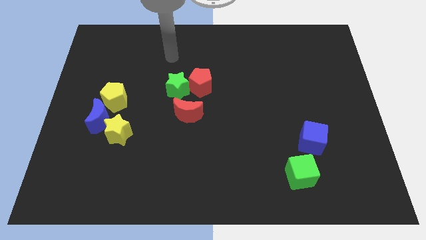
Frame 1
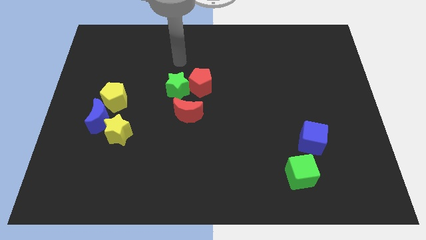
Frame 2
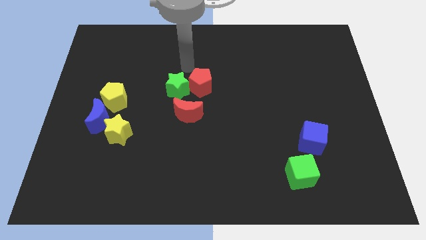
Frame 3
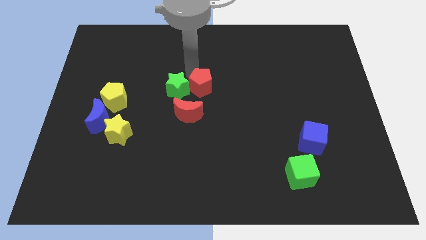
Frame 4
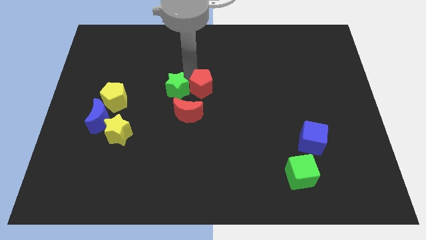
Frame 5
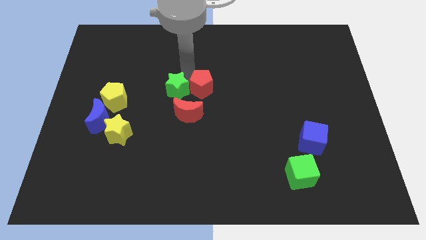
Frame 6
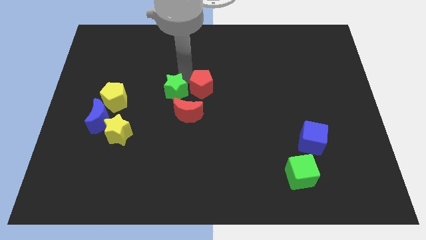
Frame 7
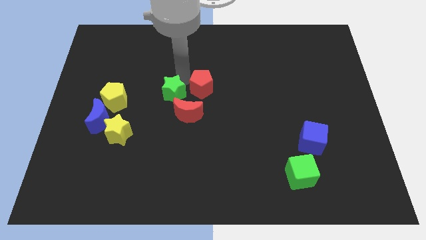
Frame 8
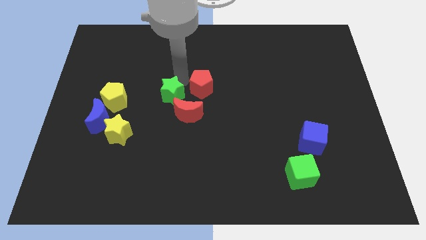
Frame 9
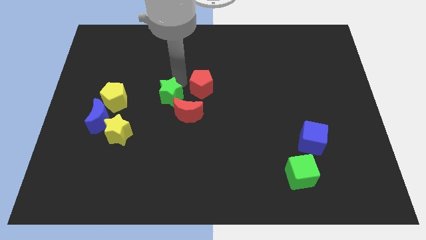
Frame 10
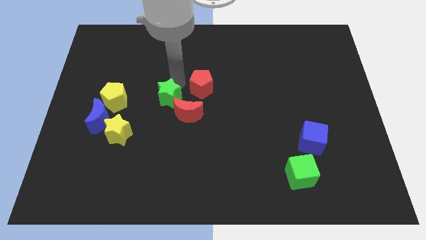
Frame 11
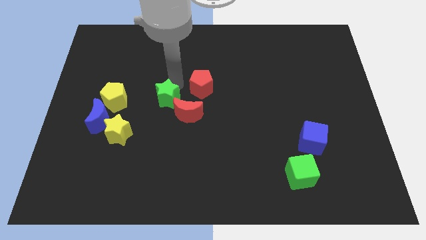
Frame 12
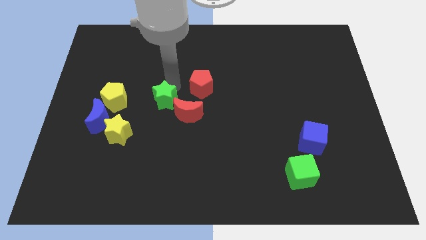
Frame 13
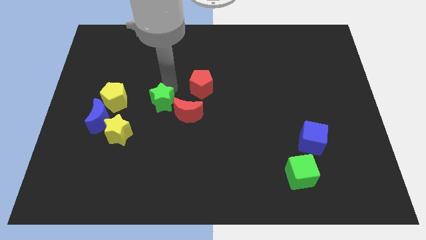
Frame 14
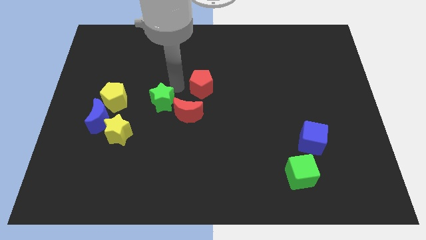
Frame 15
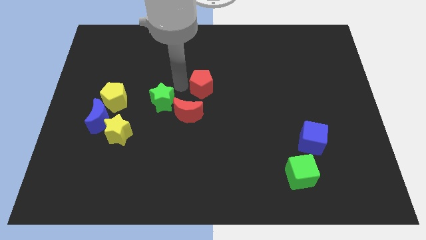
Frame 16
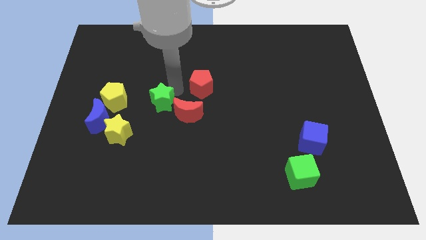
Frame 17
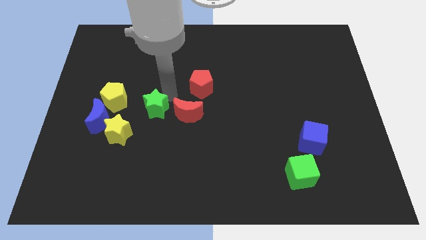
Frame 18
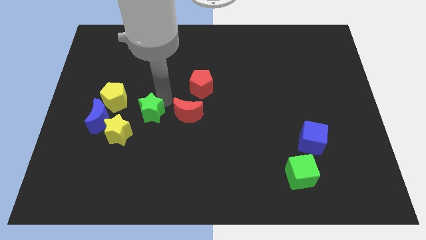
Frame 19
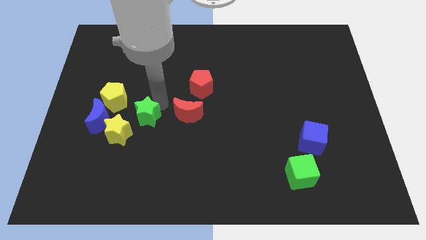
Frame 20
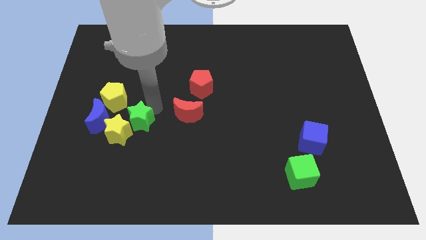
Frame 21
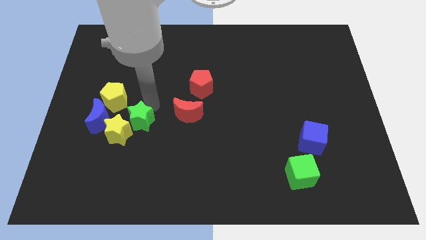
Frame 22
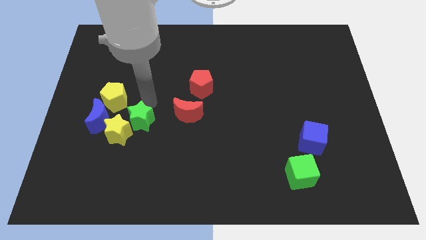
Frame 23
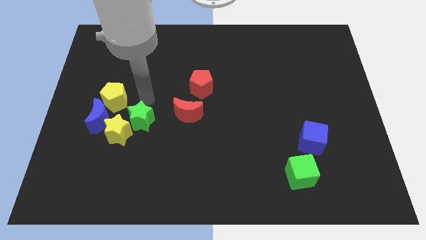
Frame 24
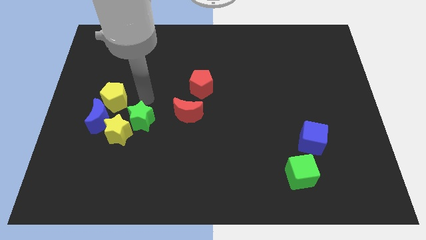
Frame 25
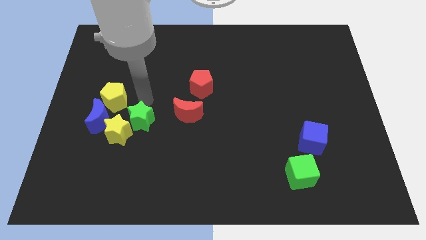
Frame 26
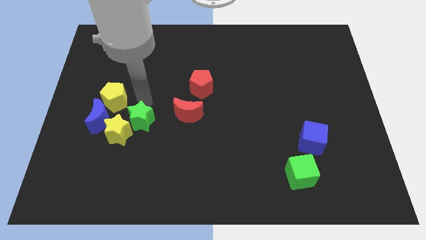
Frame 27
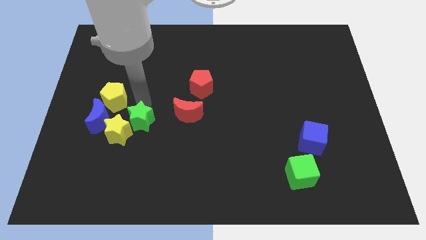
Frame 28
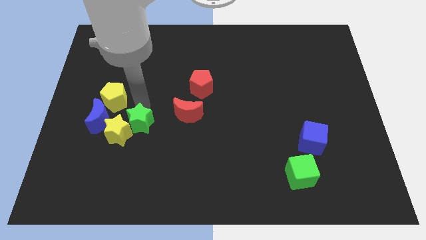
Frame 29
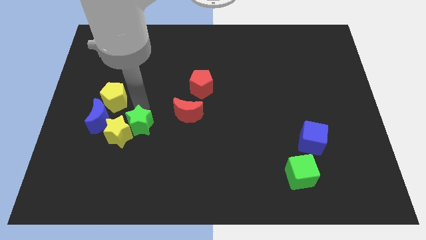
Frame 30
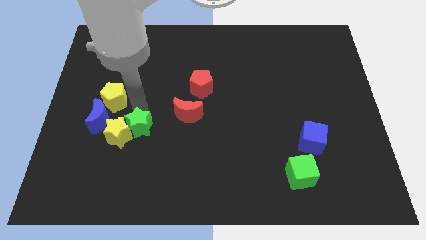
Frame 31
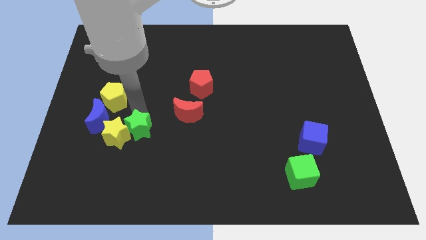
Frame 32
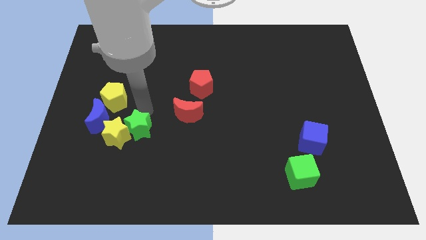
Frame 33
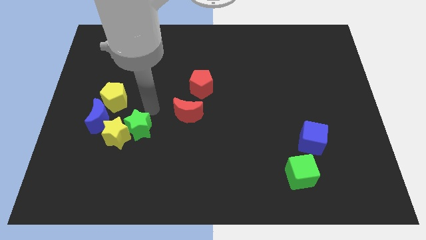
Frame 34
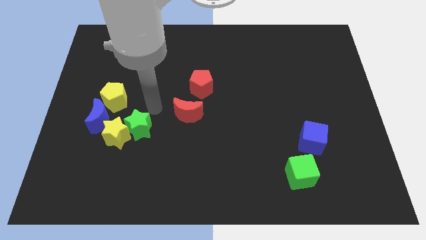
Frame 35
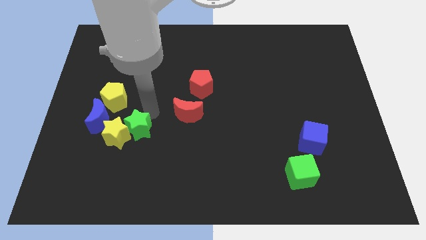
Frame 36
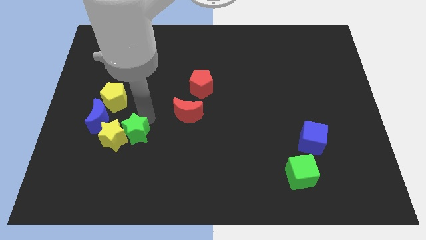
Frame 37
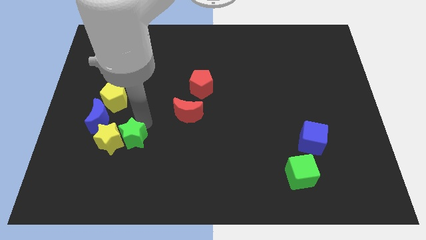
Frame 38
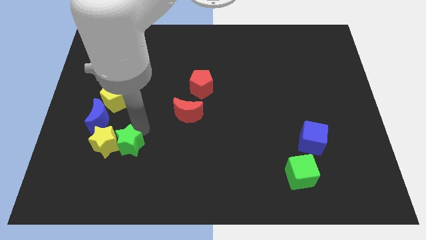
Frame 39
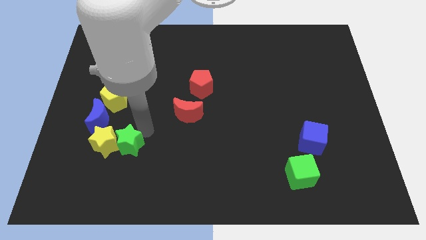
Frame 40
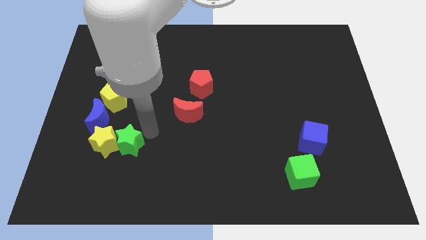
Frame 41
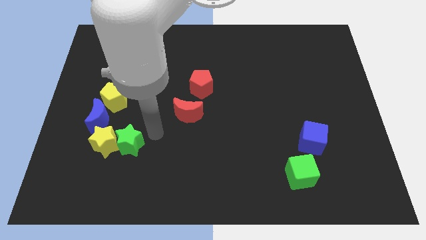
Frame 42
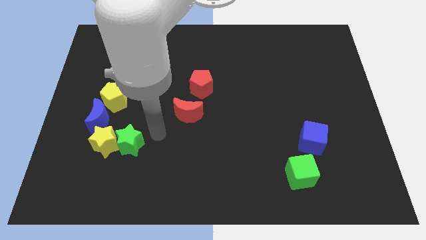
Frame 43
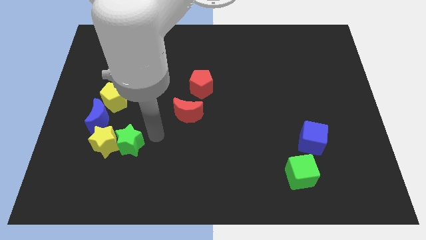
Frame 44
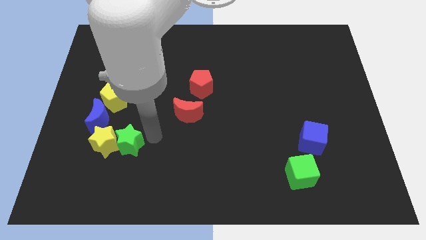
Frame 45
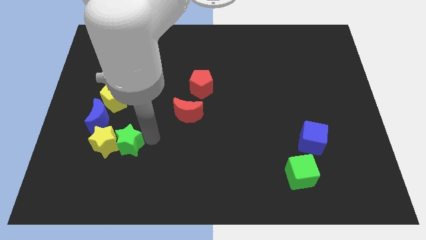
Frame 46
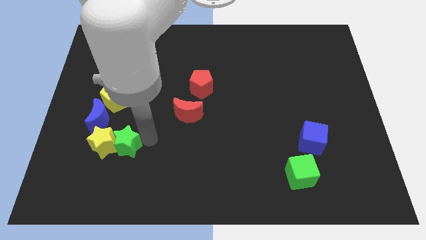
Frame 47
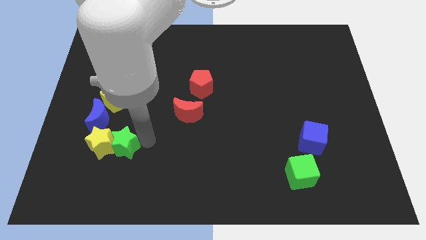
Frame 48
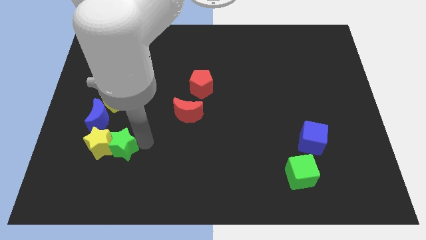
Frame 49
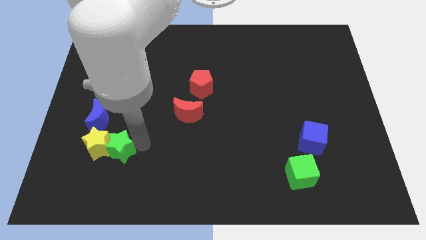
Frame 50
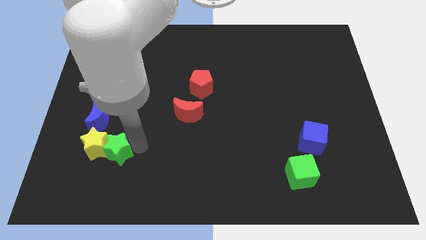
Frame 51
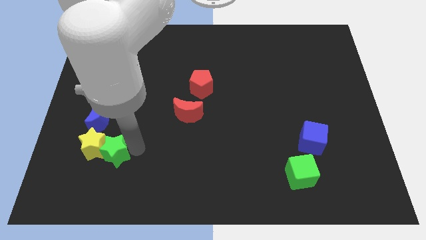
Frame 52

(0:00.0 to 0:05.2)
push the green star below the blue moon

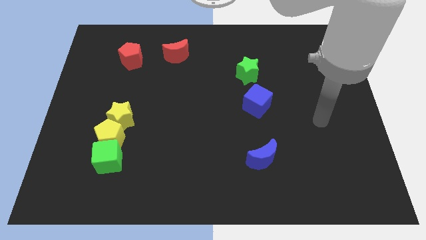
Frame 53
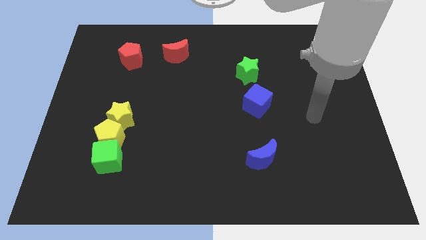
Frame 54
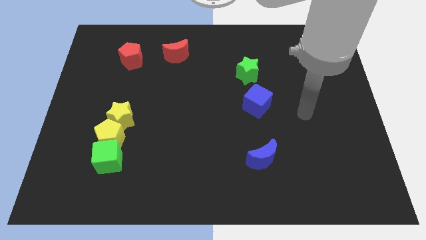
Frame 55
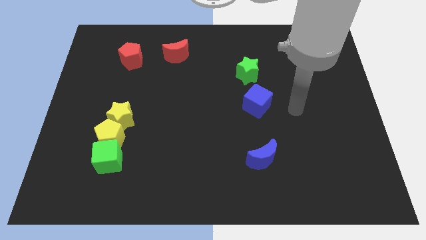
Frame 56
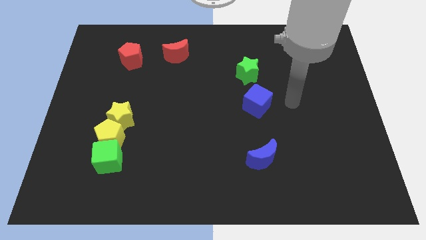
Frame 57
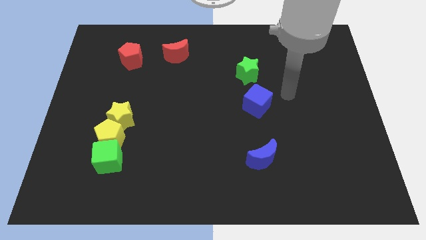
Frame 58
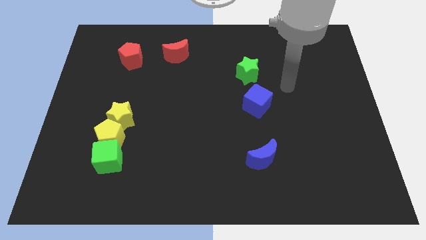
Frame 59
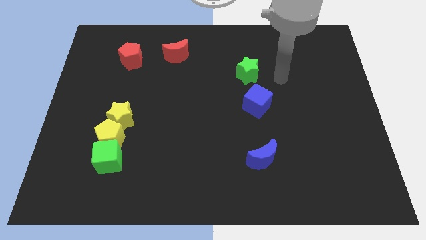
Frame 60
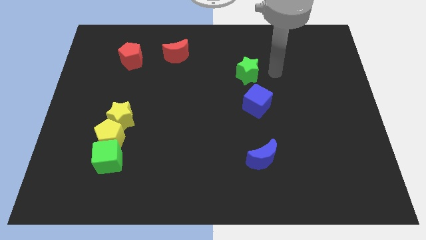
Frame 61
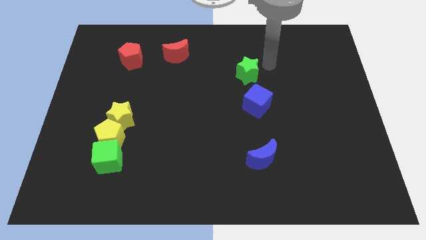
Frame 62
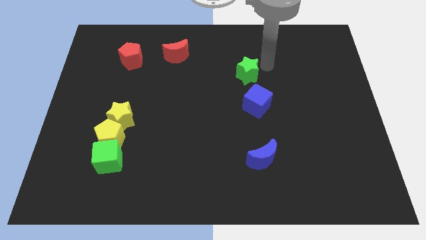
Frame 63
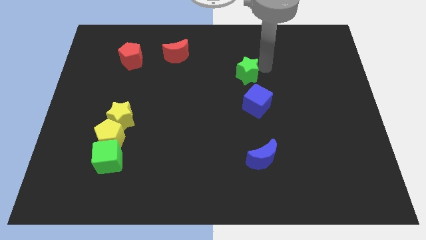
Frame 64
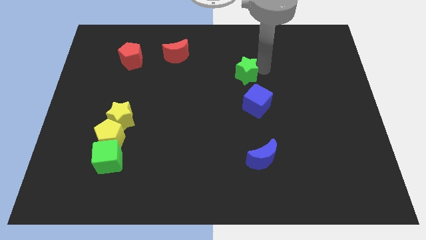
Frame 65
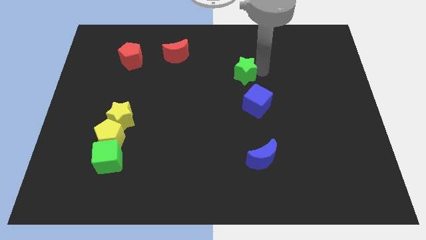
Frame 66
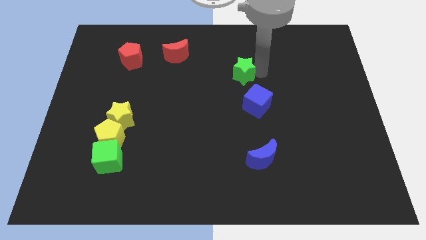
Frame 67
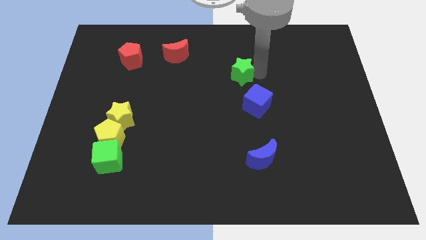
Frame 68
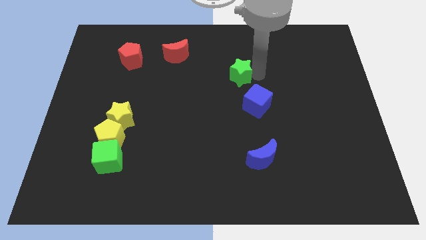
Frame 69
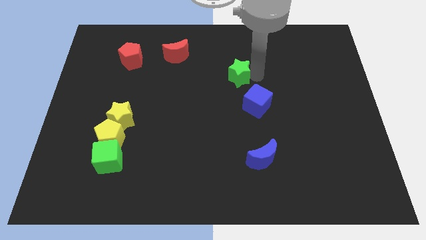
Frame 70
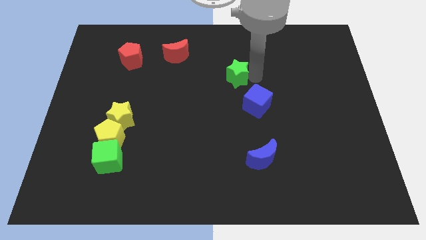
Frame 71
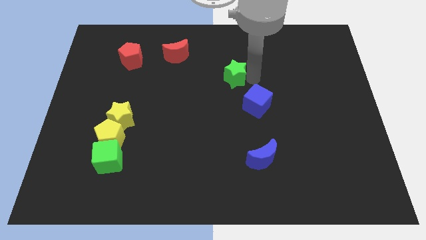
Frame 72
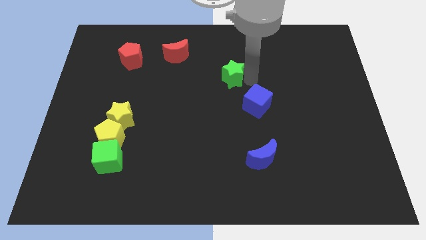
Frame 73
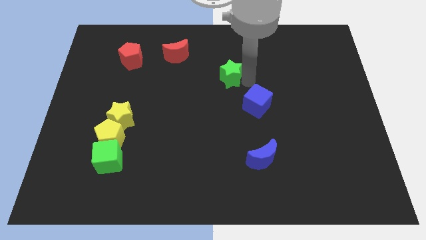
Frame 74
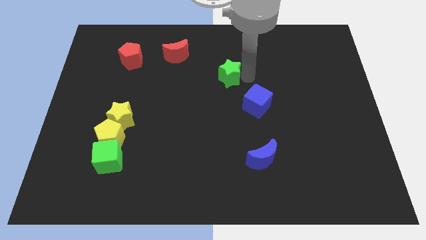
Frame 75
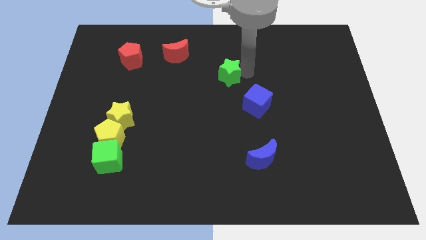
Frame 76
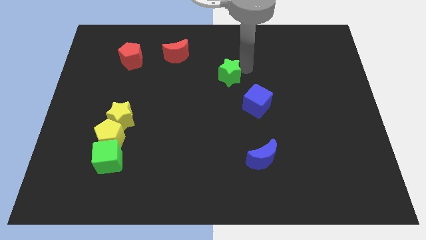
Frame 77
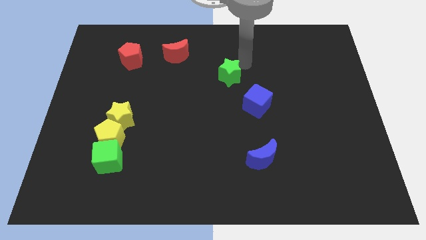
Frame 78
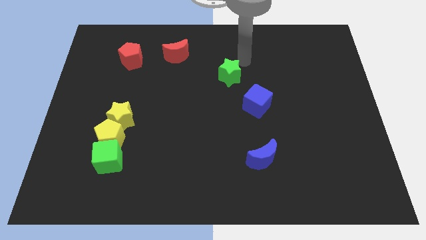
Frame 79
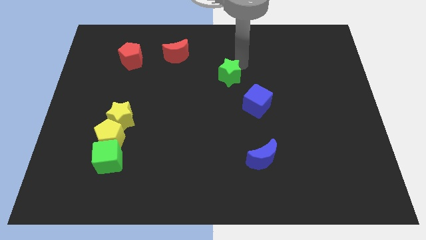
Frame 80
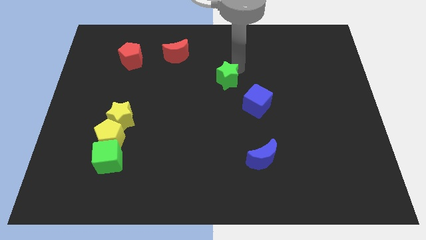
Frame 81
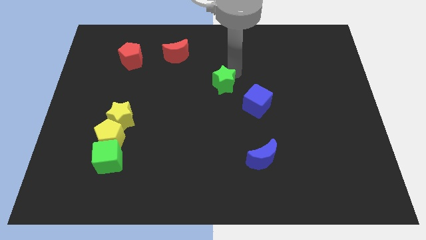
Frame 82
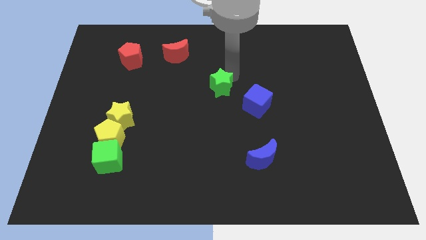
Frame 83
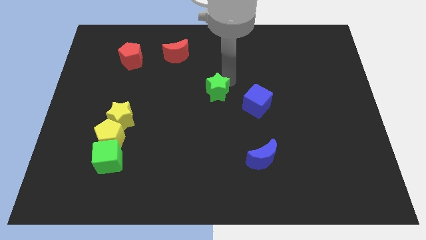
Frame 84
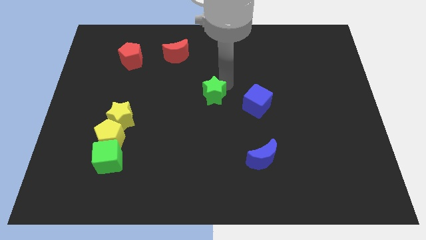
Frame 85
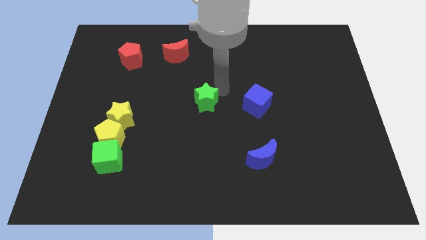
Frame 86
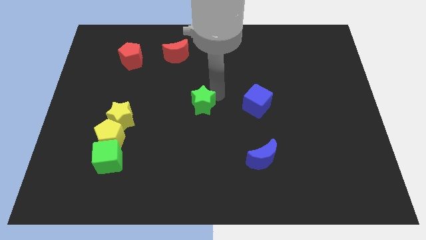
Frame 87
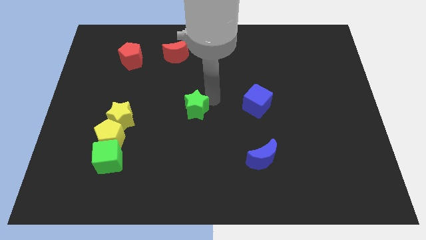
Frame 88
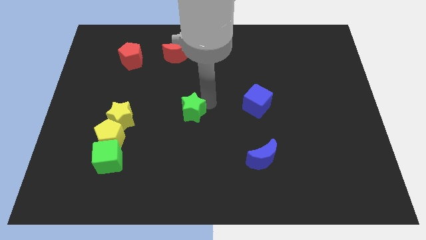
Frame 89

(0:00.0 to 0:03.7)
put the green star right of the yellow star
